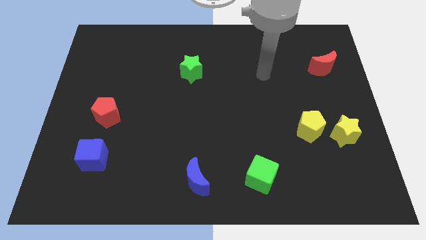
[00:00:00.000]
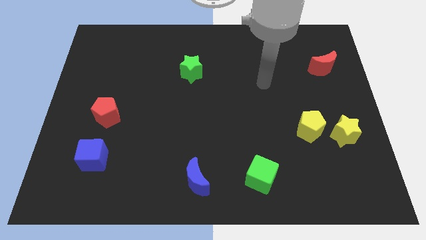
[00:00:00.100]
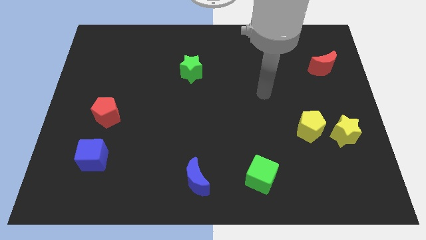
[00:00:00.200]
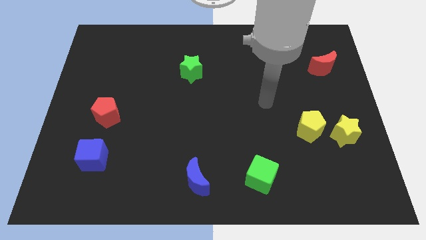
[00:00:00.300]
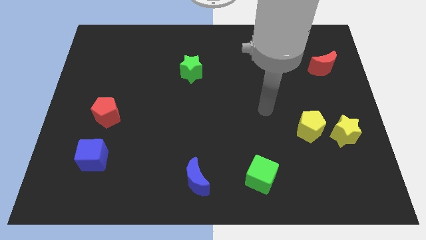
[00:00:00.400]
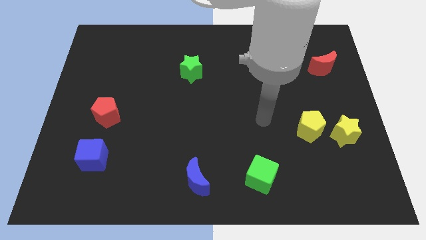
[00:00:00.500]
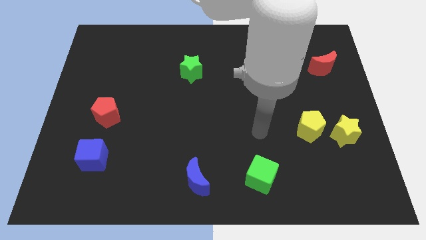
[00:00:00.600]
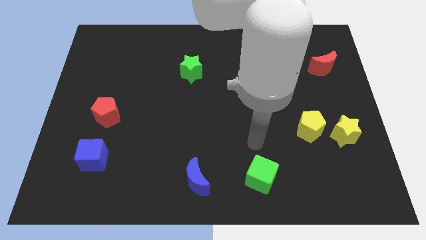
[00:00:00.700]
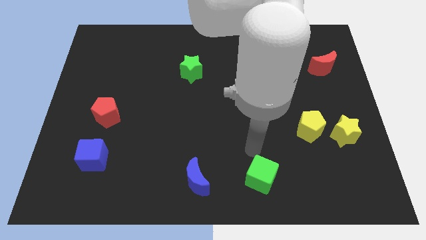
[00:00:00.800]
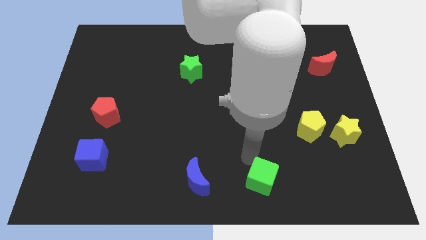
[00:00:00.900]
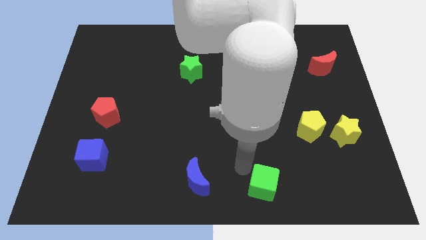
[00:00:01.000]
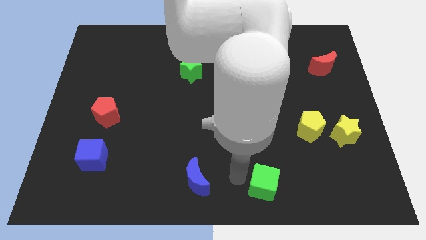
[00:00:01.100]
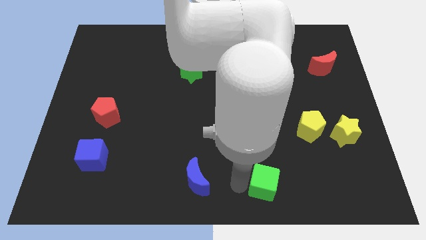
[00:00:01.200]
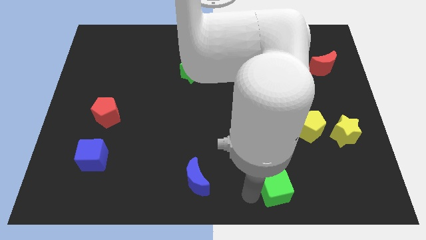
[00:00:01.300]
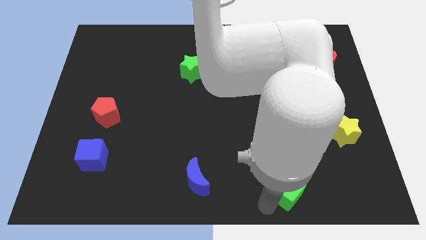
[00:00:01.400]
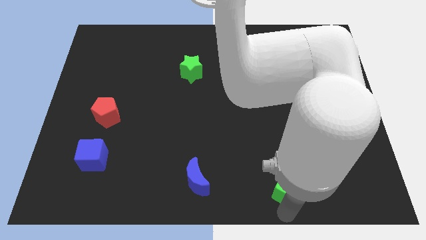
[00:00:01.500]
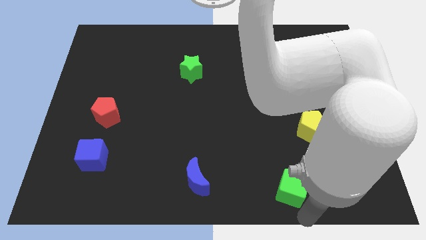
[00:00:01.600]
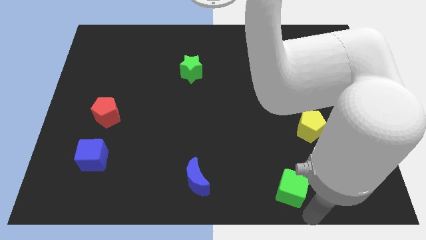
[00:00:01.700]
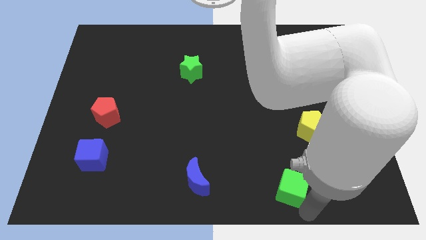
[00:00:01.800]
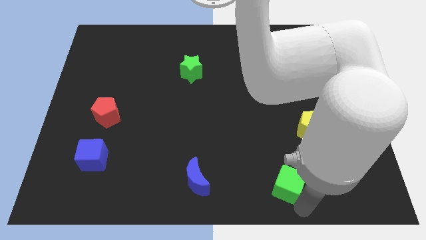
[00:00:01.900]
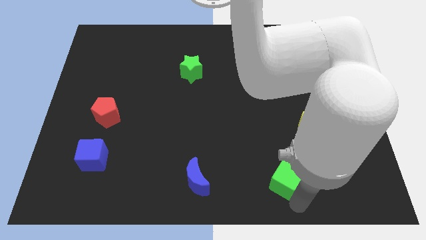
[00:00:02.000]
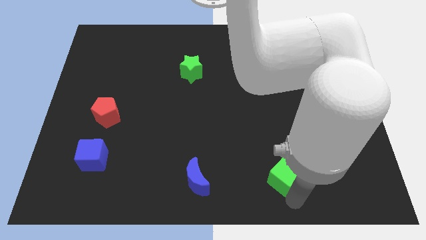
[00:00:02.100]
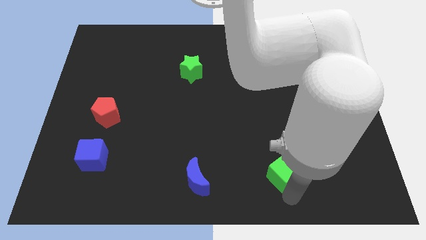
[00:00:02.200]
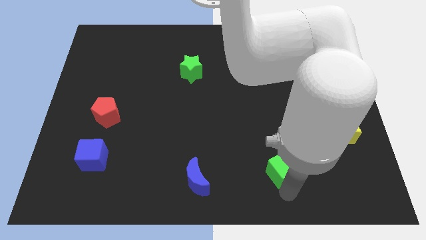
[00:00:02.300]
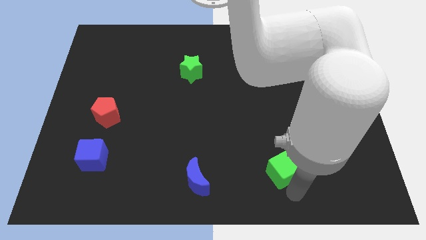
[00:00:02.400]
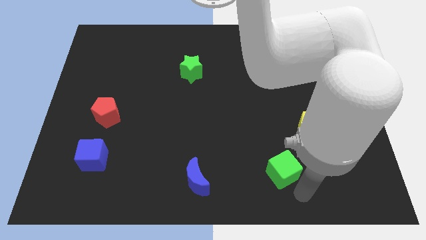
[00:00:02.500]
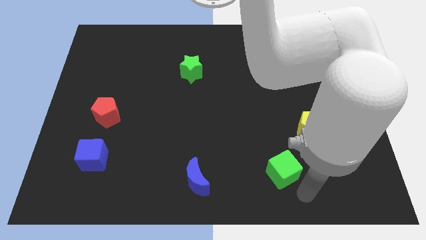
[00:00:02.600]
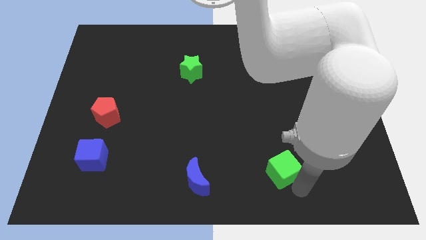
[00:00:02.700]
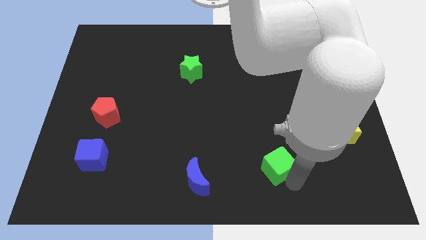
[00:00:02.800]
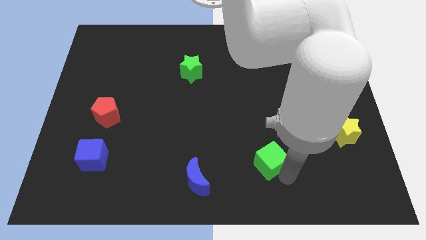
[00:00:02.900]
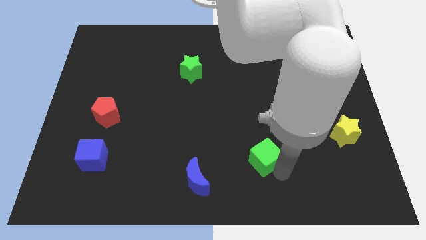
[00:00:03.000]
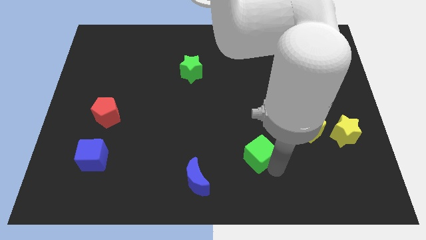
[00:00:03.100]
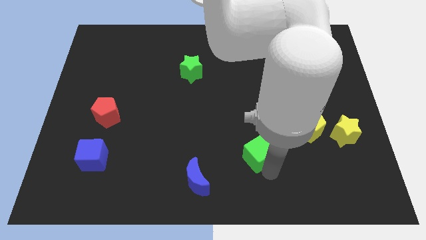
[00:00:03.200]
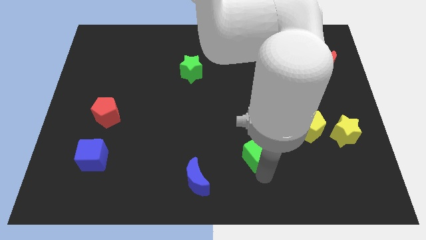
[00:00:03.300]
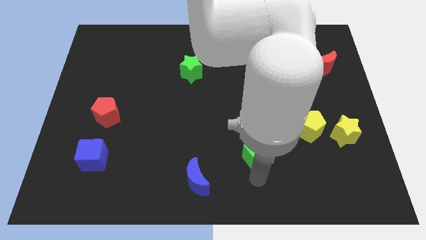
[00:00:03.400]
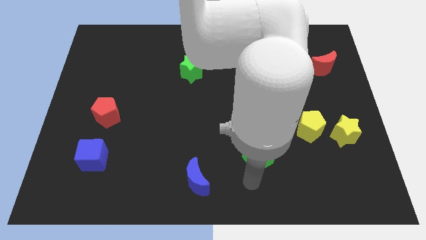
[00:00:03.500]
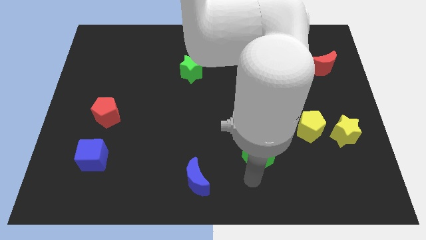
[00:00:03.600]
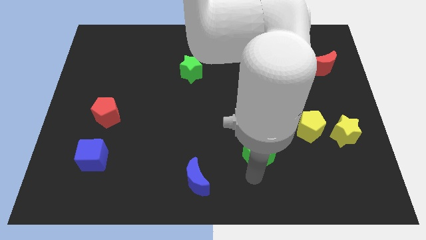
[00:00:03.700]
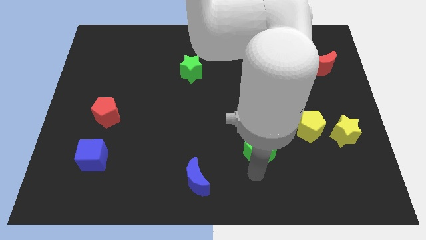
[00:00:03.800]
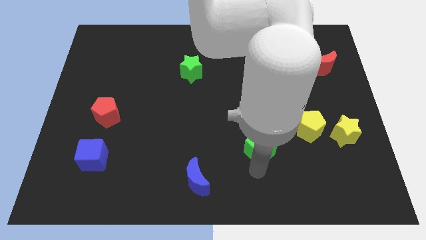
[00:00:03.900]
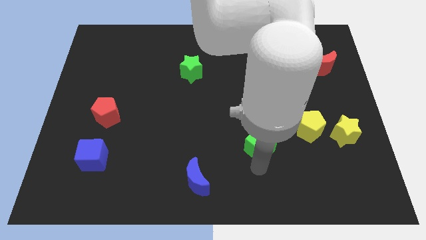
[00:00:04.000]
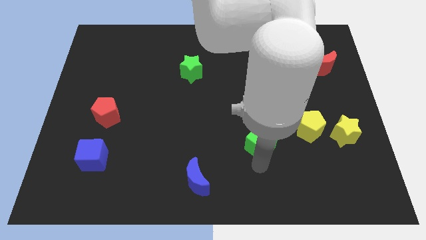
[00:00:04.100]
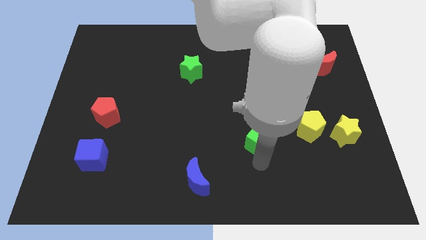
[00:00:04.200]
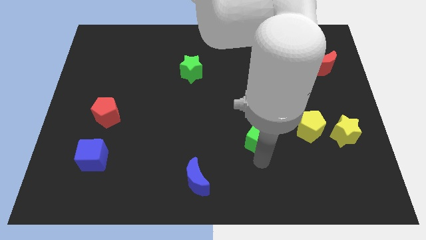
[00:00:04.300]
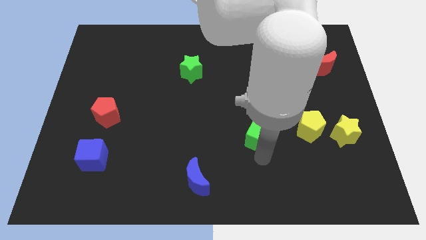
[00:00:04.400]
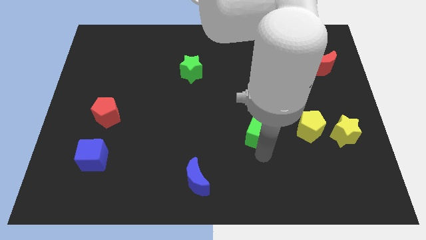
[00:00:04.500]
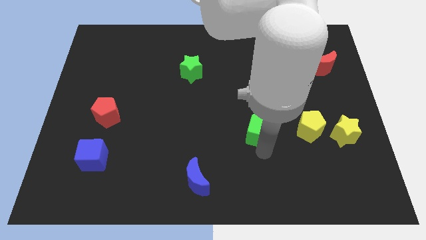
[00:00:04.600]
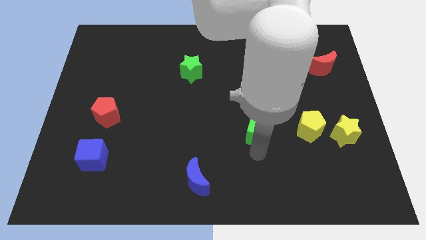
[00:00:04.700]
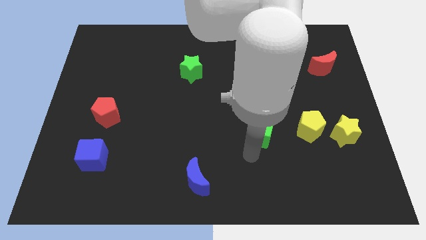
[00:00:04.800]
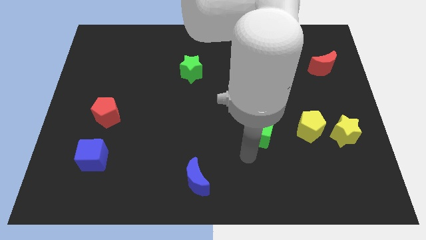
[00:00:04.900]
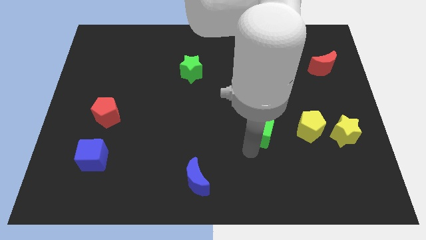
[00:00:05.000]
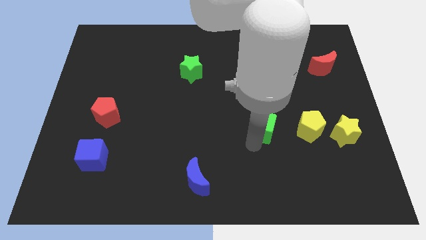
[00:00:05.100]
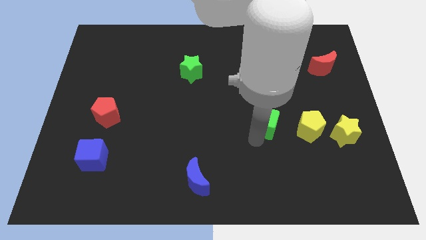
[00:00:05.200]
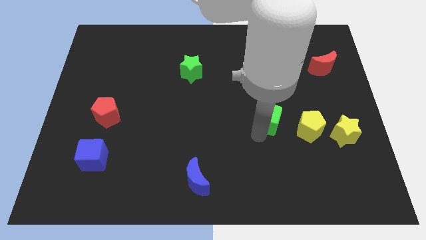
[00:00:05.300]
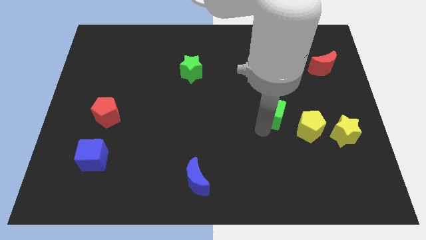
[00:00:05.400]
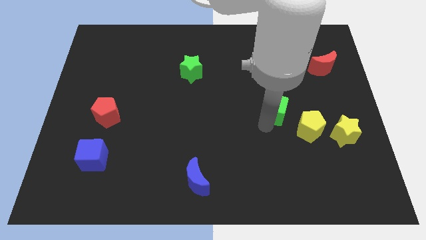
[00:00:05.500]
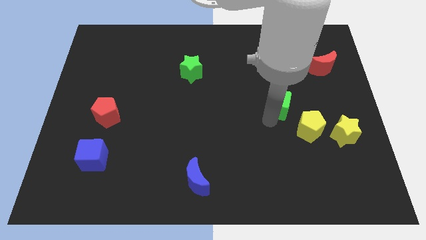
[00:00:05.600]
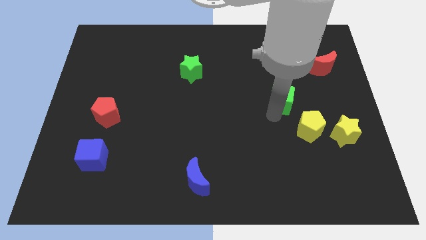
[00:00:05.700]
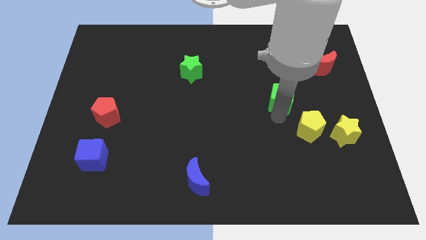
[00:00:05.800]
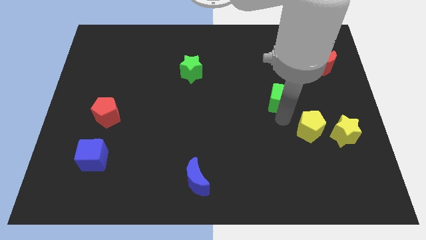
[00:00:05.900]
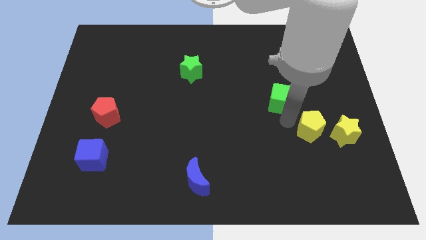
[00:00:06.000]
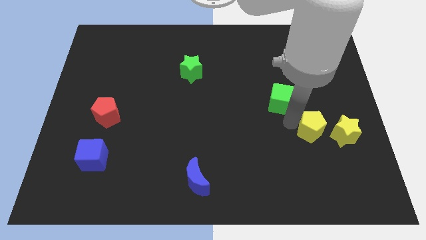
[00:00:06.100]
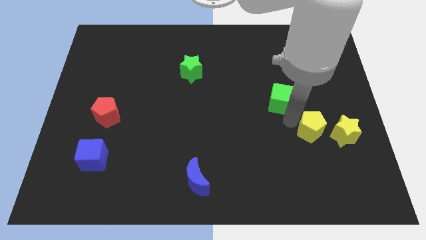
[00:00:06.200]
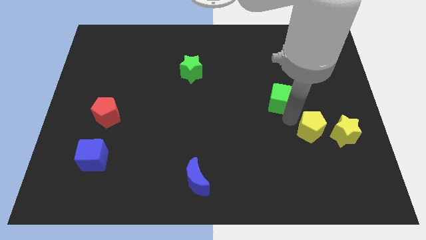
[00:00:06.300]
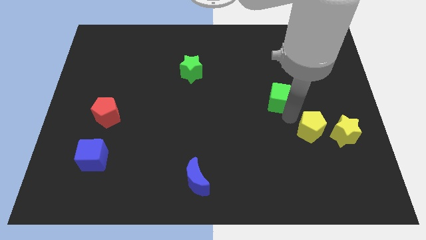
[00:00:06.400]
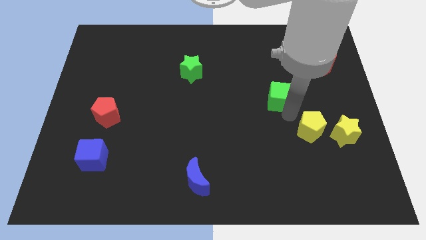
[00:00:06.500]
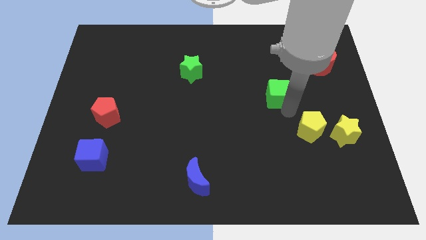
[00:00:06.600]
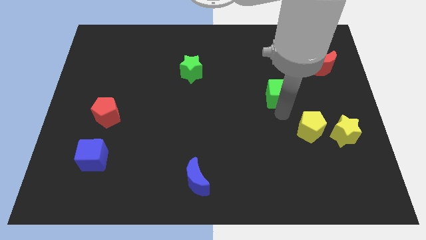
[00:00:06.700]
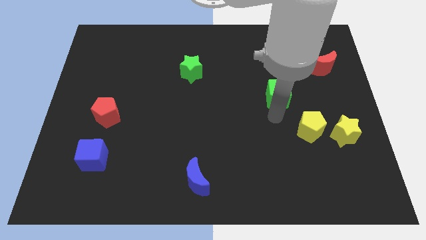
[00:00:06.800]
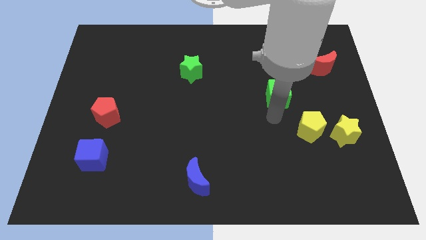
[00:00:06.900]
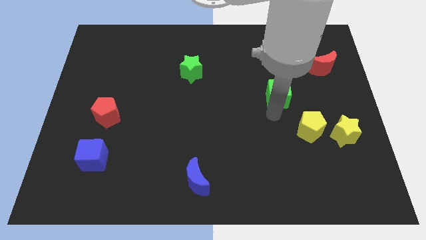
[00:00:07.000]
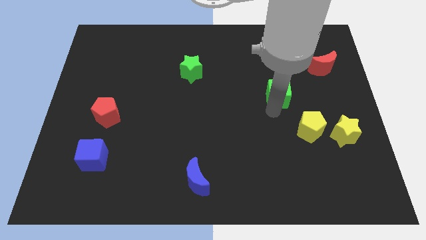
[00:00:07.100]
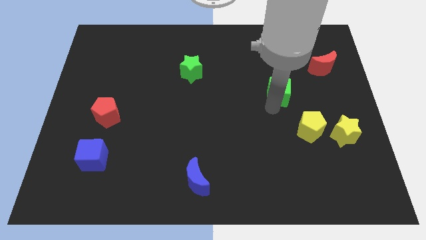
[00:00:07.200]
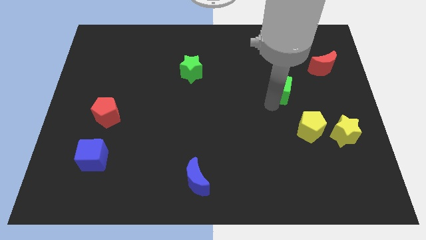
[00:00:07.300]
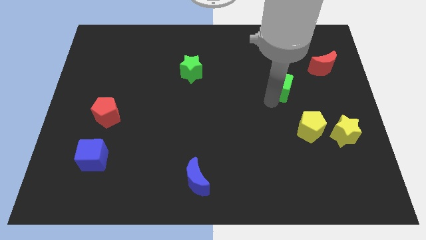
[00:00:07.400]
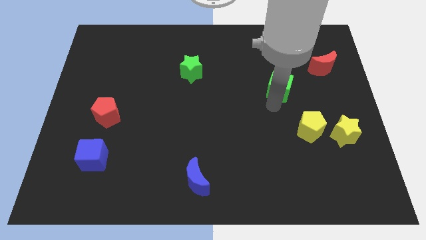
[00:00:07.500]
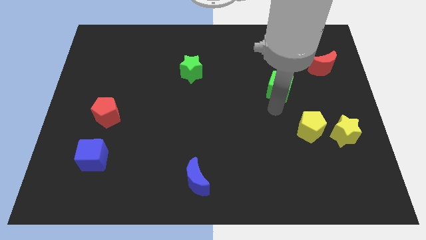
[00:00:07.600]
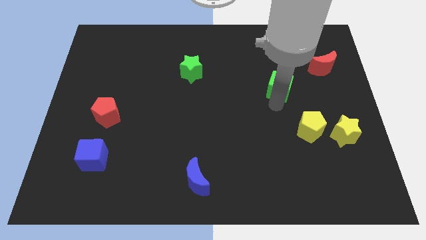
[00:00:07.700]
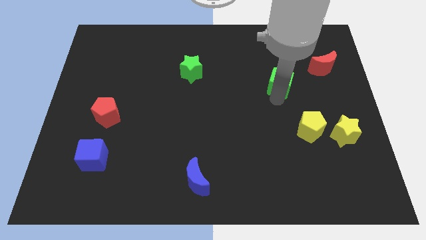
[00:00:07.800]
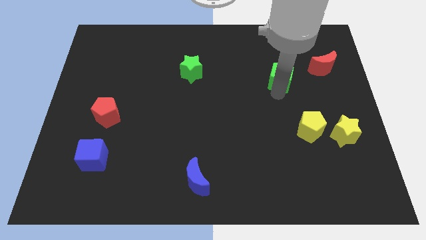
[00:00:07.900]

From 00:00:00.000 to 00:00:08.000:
slide the green cube just left of the red moon
